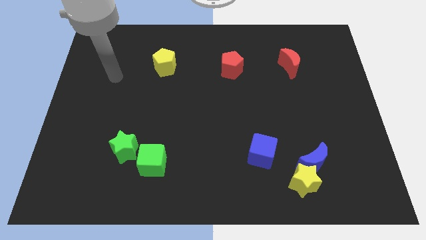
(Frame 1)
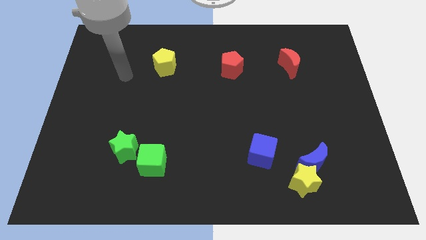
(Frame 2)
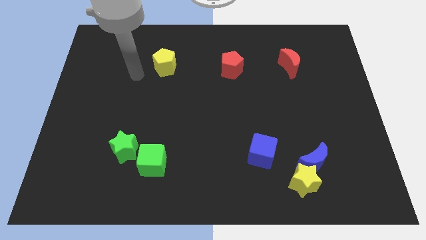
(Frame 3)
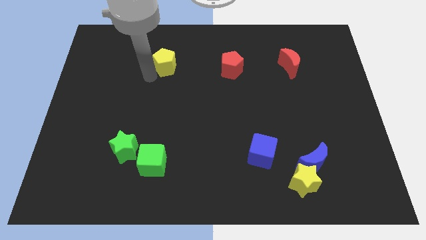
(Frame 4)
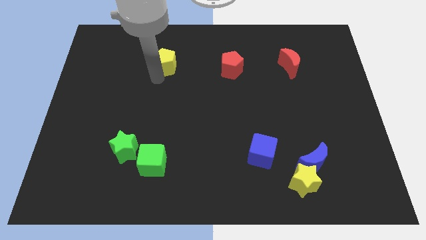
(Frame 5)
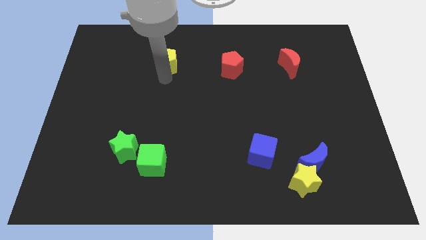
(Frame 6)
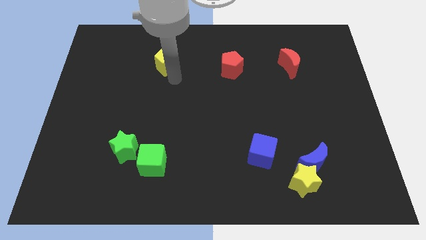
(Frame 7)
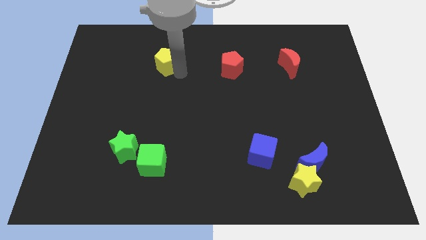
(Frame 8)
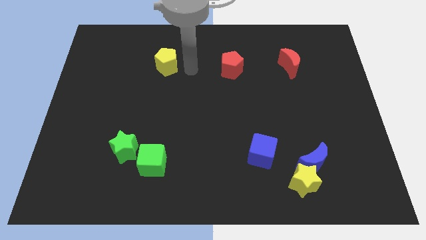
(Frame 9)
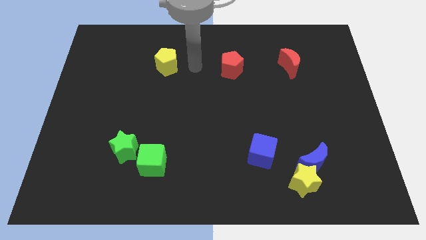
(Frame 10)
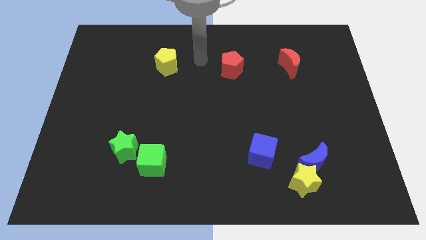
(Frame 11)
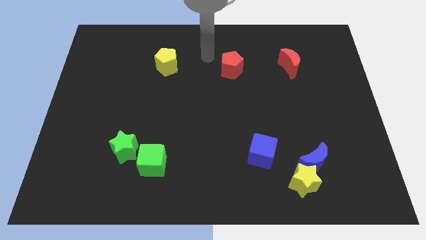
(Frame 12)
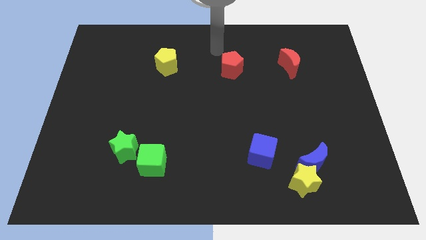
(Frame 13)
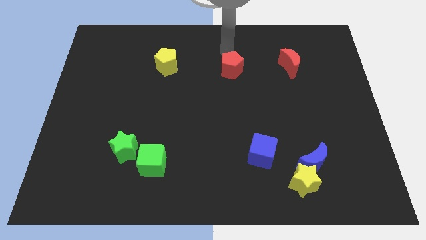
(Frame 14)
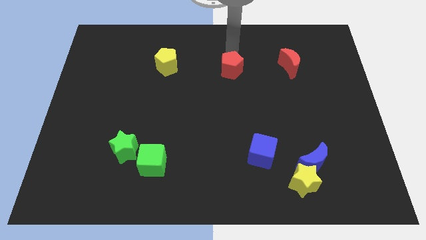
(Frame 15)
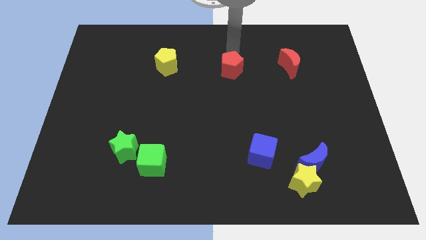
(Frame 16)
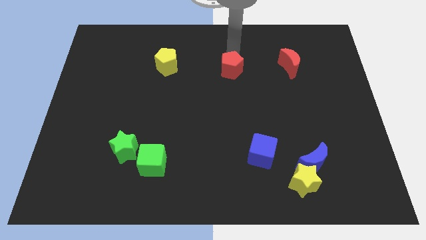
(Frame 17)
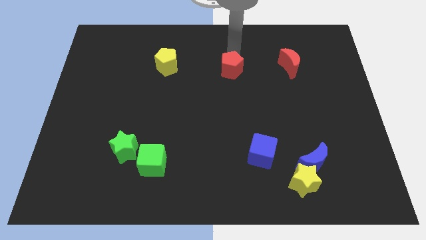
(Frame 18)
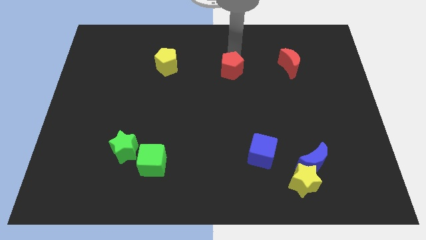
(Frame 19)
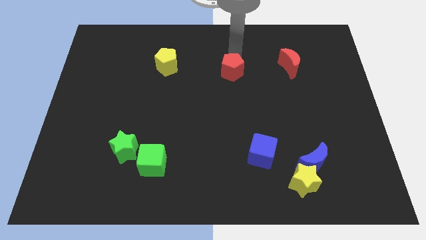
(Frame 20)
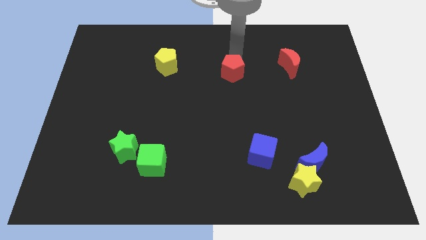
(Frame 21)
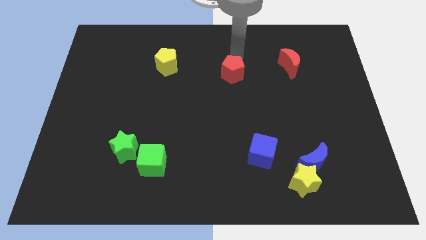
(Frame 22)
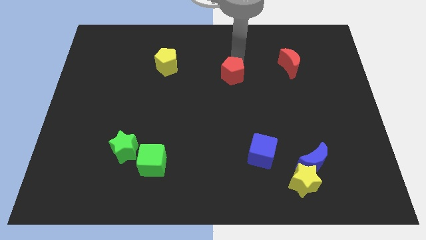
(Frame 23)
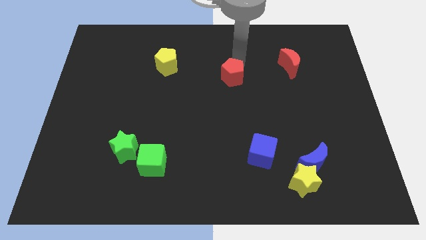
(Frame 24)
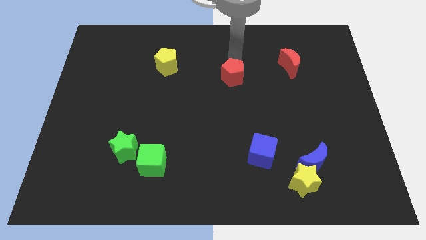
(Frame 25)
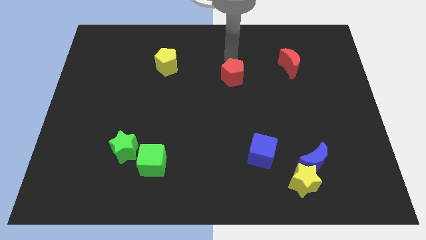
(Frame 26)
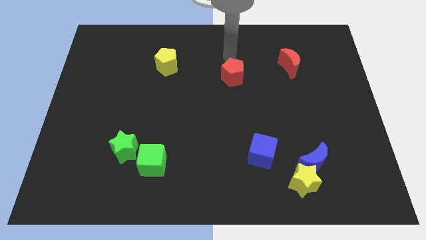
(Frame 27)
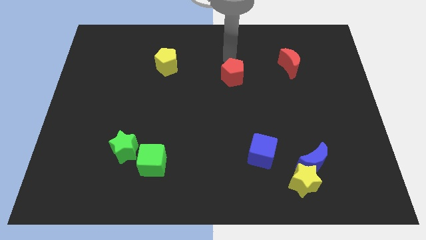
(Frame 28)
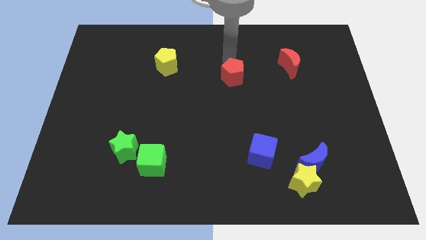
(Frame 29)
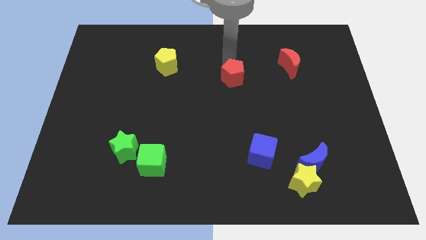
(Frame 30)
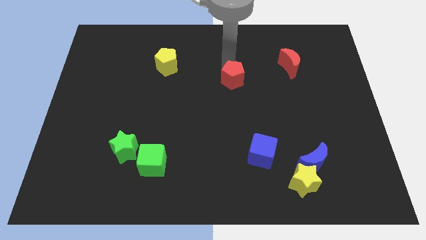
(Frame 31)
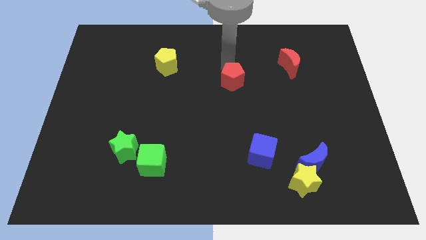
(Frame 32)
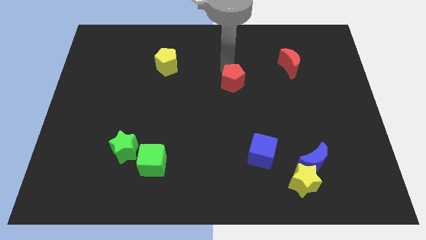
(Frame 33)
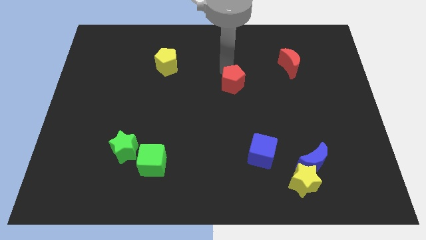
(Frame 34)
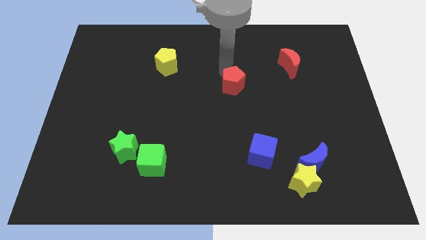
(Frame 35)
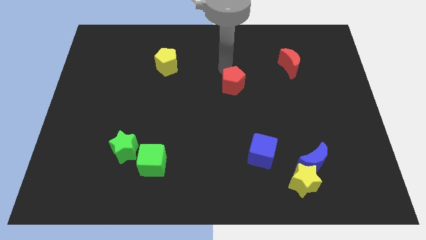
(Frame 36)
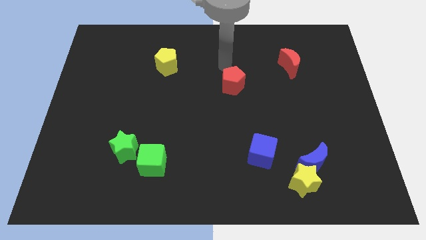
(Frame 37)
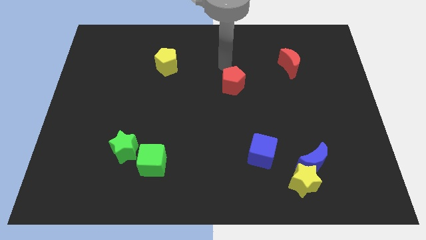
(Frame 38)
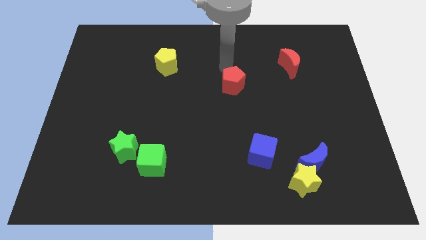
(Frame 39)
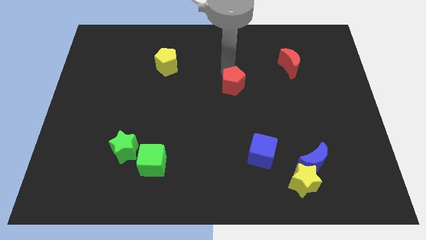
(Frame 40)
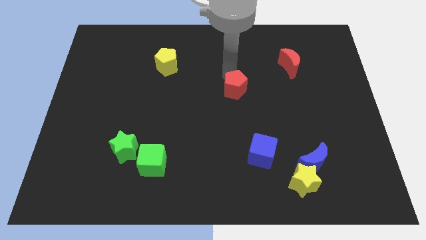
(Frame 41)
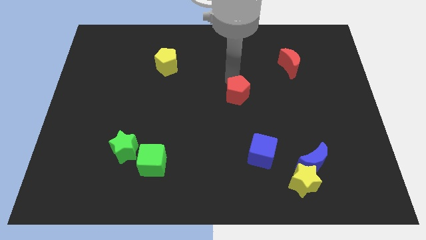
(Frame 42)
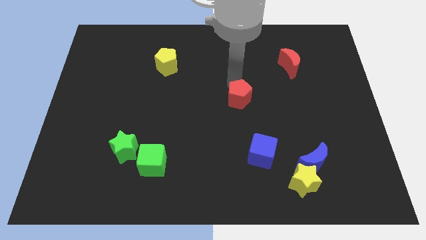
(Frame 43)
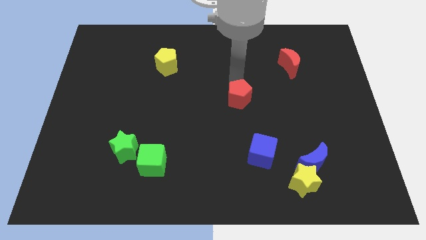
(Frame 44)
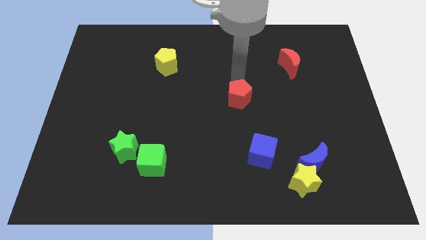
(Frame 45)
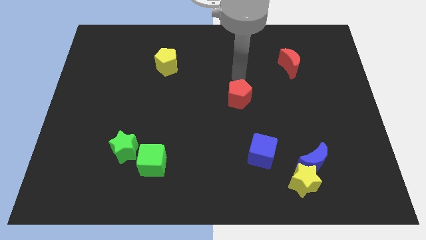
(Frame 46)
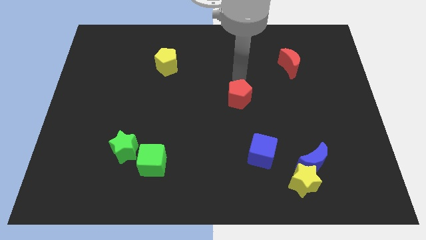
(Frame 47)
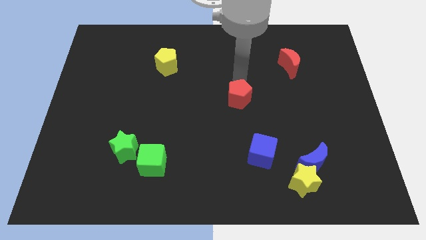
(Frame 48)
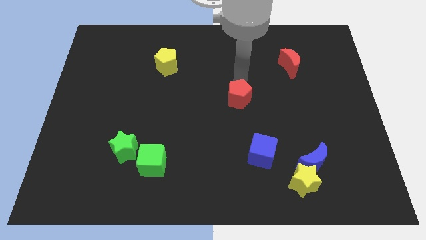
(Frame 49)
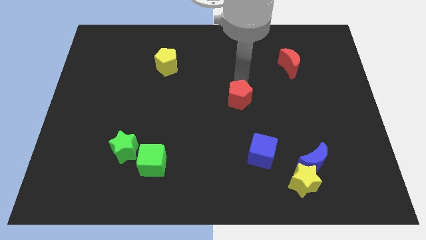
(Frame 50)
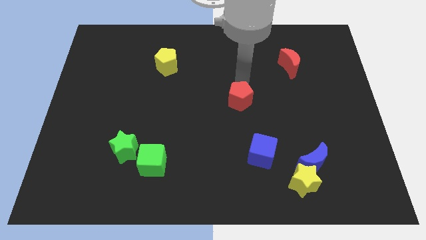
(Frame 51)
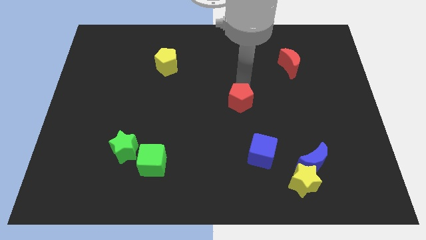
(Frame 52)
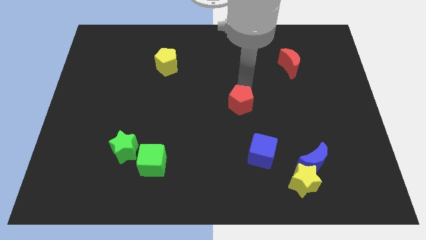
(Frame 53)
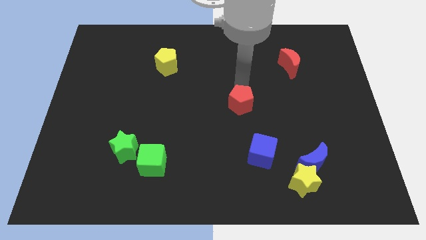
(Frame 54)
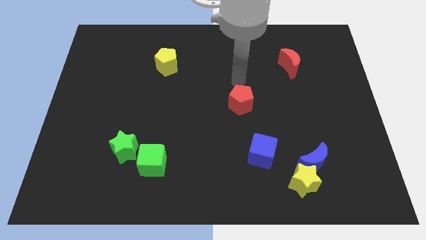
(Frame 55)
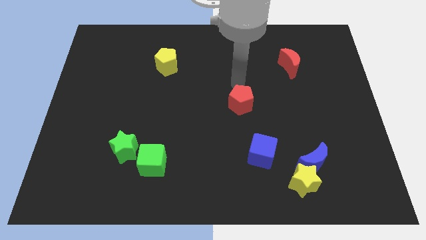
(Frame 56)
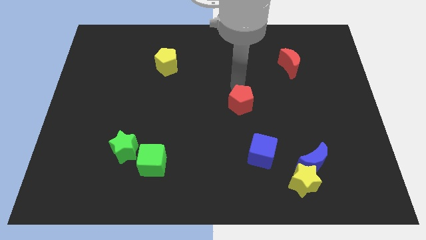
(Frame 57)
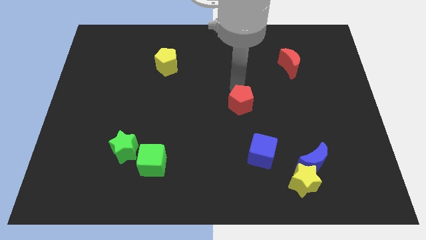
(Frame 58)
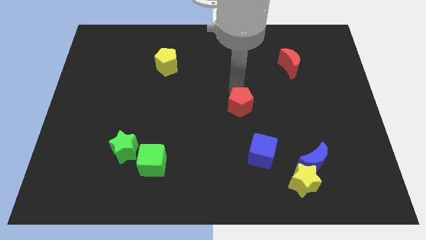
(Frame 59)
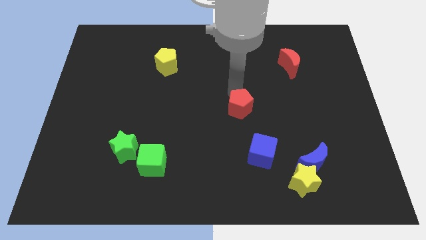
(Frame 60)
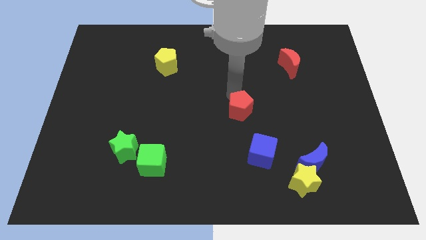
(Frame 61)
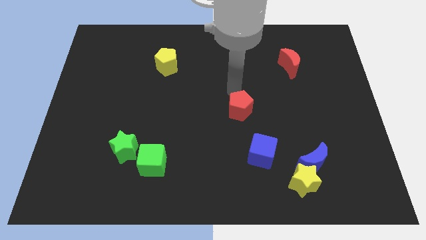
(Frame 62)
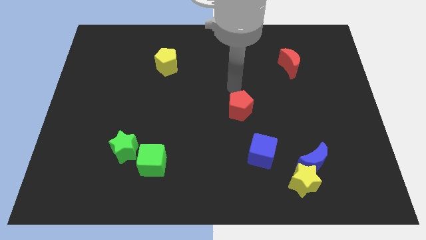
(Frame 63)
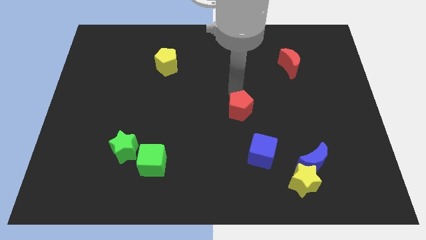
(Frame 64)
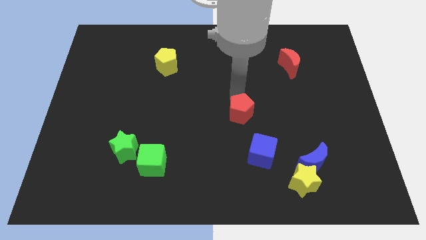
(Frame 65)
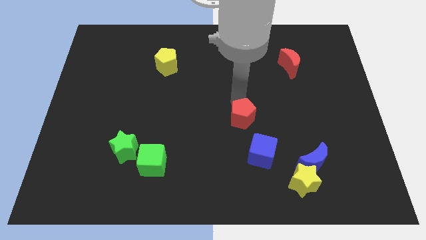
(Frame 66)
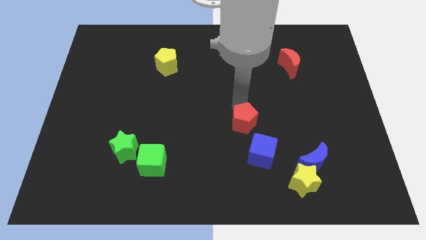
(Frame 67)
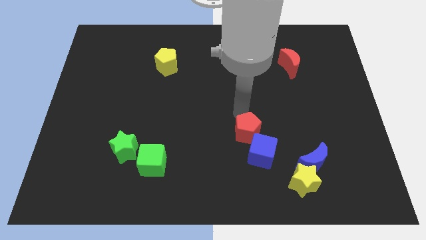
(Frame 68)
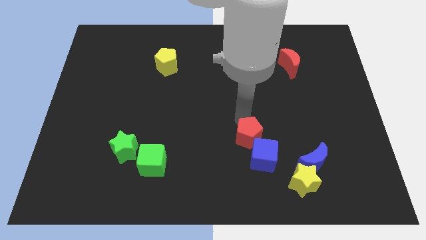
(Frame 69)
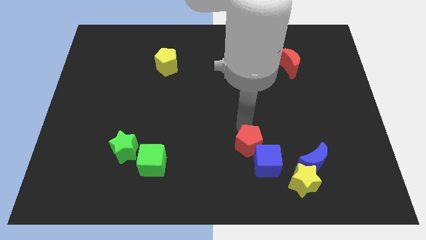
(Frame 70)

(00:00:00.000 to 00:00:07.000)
put the red pentagon close to the blue cube
